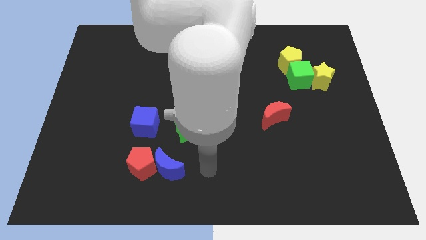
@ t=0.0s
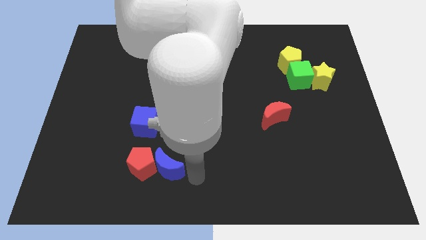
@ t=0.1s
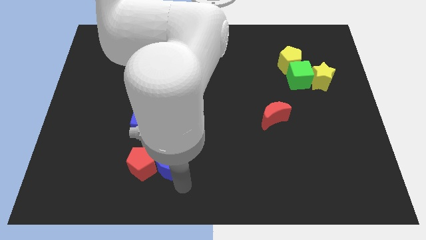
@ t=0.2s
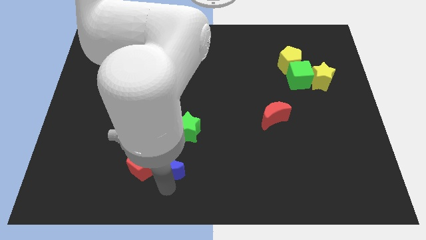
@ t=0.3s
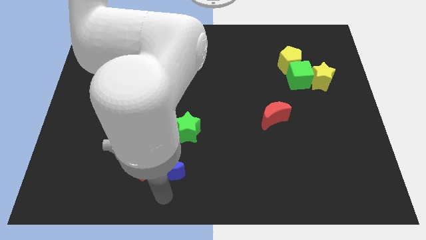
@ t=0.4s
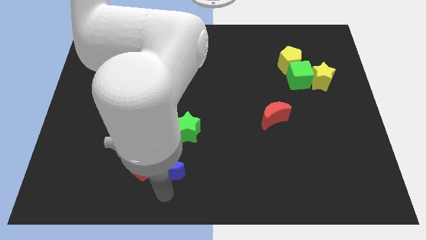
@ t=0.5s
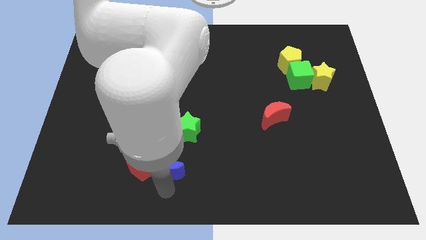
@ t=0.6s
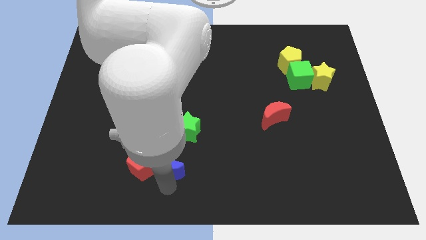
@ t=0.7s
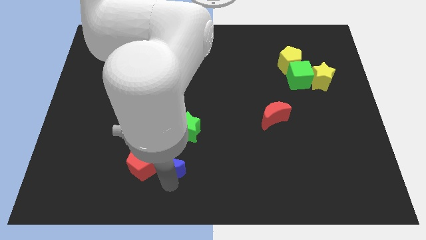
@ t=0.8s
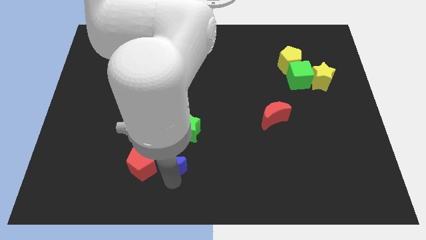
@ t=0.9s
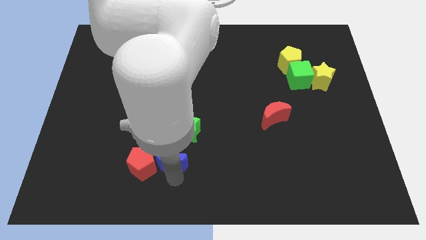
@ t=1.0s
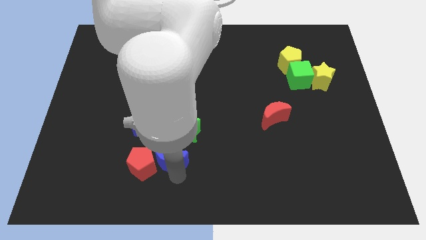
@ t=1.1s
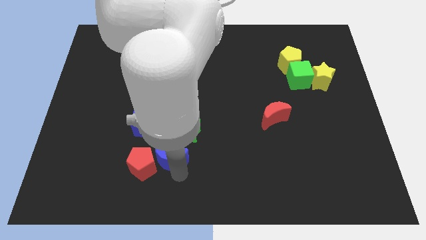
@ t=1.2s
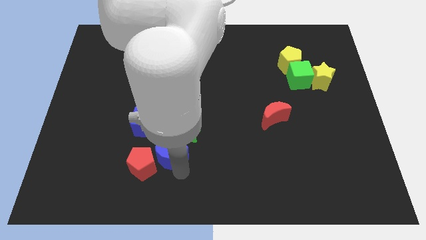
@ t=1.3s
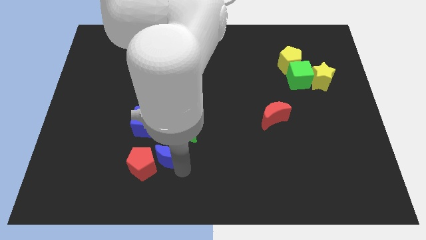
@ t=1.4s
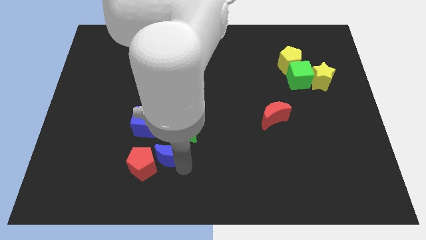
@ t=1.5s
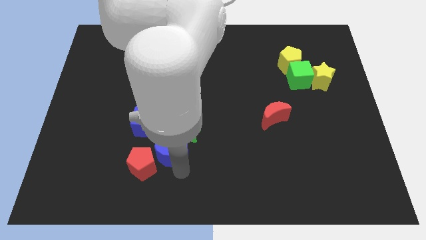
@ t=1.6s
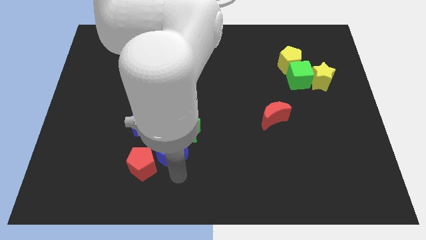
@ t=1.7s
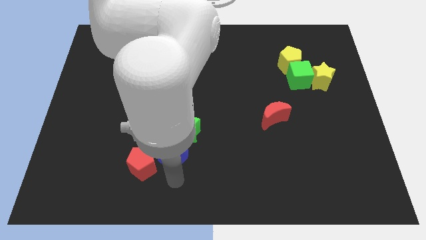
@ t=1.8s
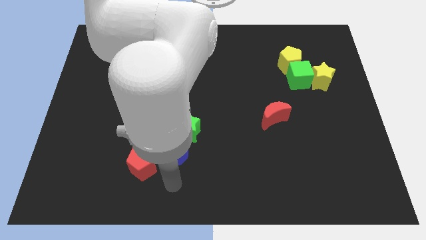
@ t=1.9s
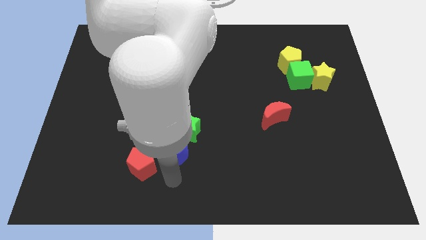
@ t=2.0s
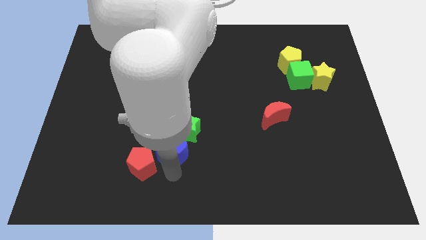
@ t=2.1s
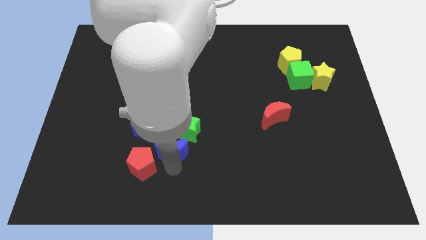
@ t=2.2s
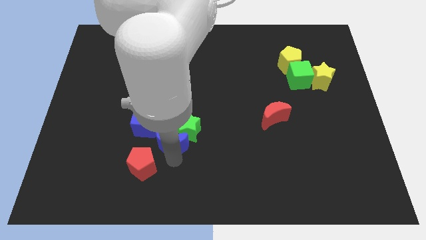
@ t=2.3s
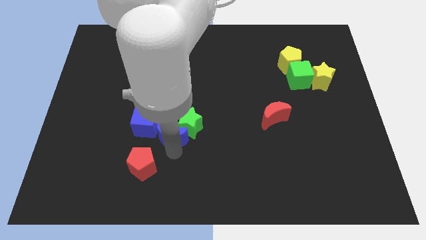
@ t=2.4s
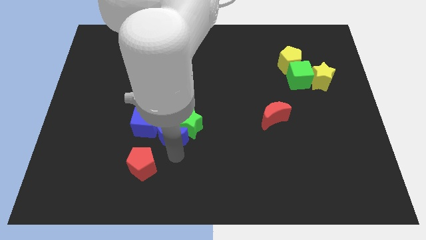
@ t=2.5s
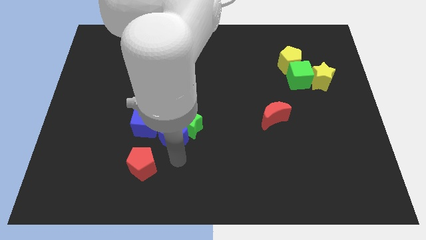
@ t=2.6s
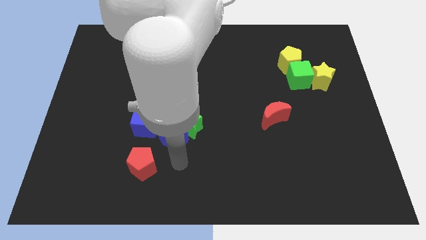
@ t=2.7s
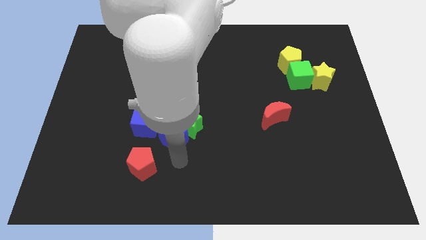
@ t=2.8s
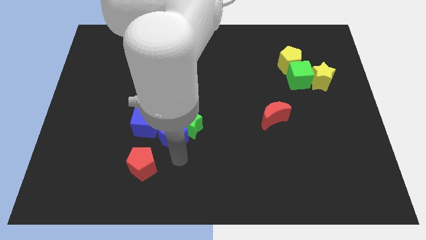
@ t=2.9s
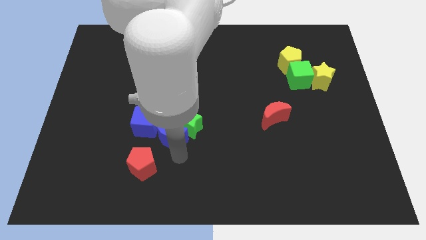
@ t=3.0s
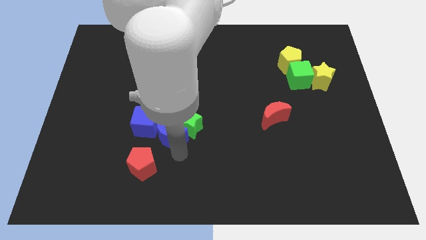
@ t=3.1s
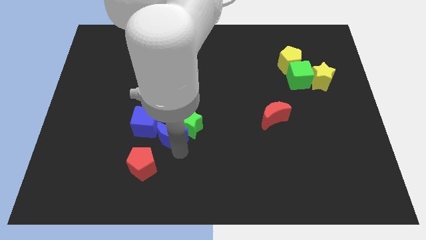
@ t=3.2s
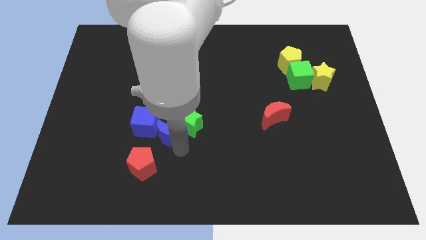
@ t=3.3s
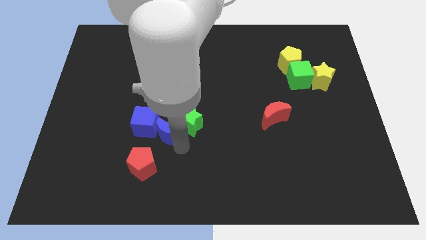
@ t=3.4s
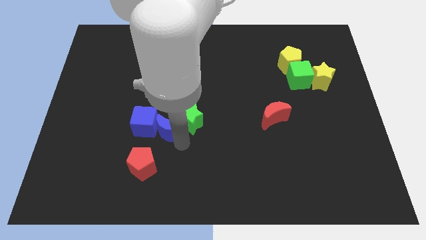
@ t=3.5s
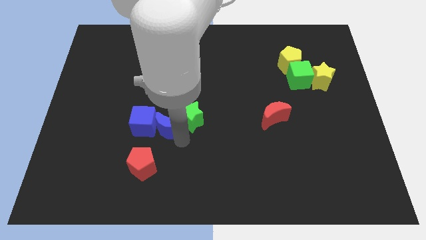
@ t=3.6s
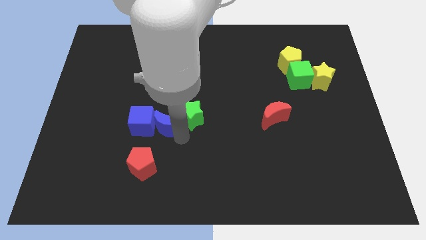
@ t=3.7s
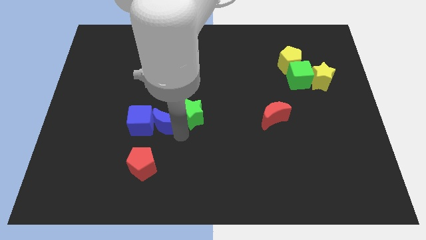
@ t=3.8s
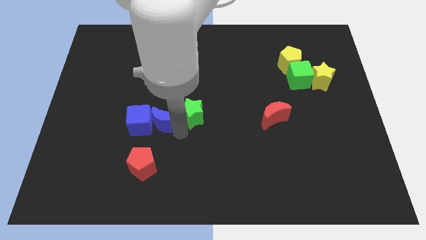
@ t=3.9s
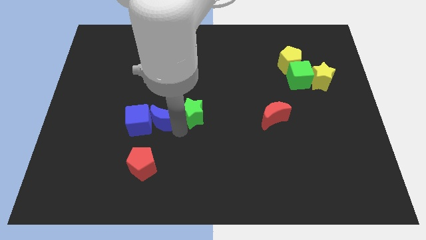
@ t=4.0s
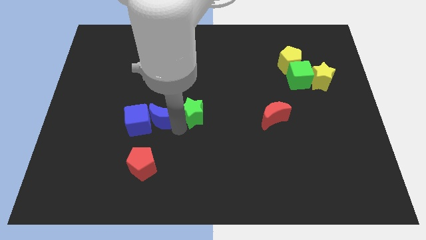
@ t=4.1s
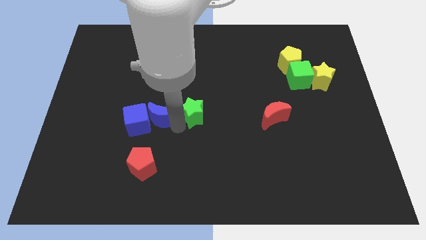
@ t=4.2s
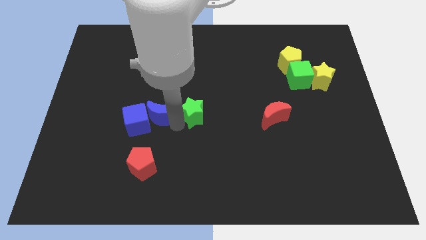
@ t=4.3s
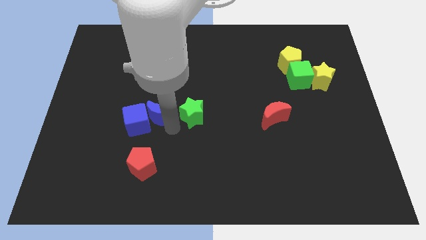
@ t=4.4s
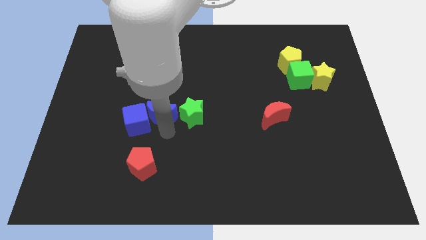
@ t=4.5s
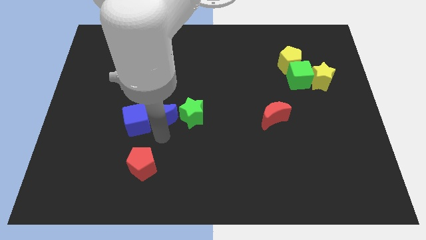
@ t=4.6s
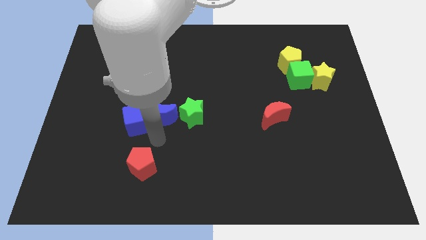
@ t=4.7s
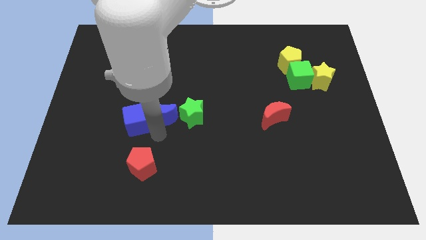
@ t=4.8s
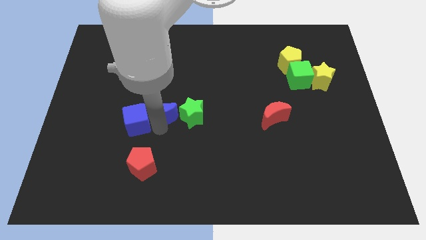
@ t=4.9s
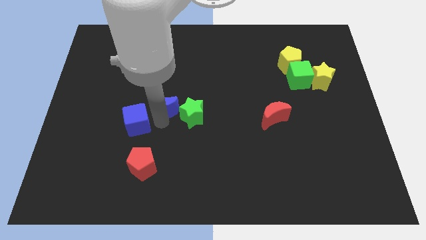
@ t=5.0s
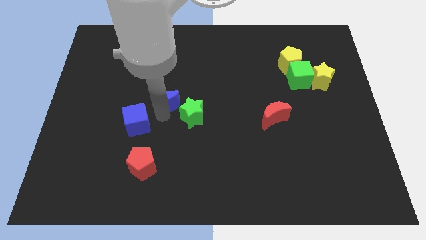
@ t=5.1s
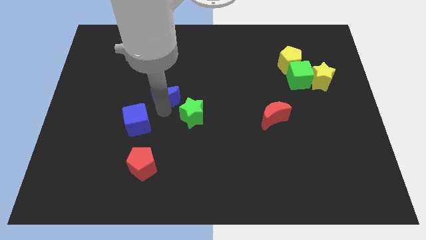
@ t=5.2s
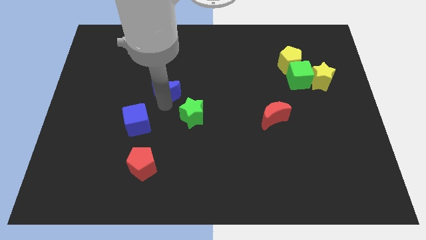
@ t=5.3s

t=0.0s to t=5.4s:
slide the blue moon upwards

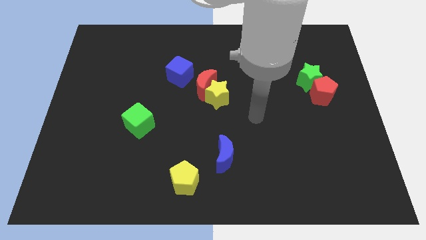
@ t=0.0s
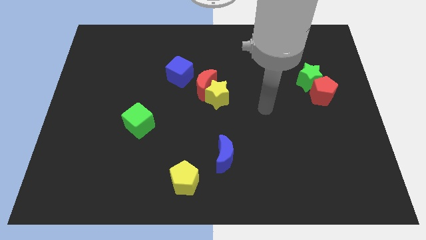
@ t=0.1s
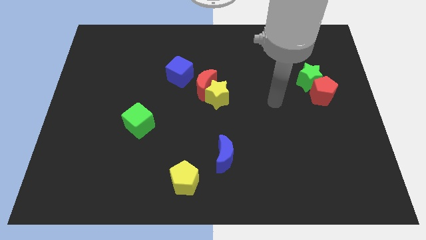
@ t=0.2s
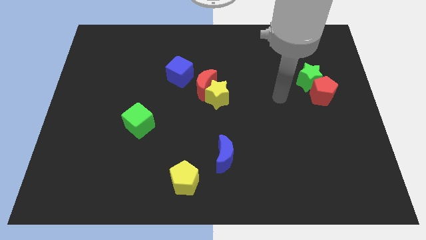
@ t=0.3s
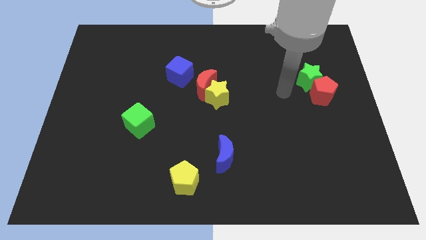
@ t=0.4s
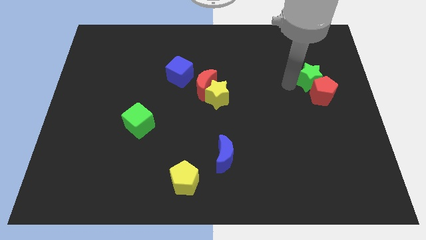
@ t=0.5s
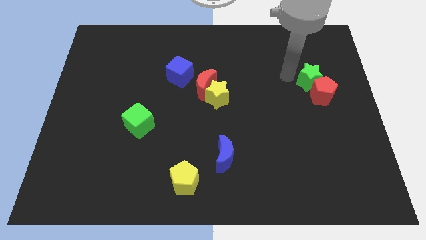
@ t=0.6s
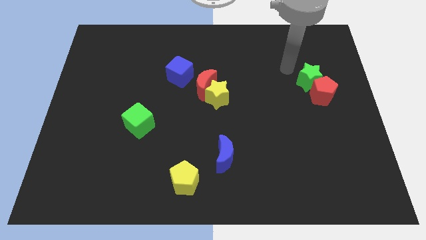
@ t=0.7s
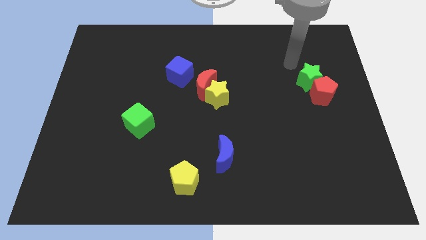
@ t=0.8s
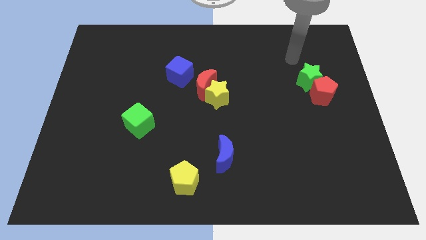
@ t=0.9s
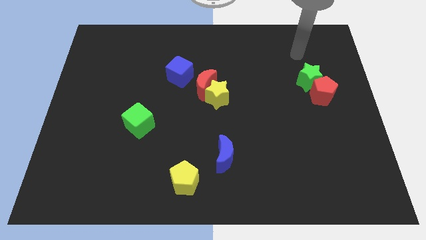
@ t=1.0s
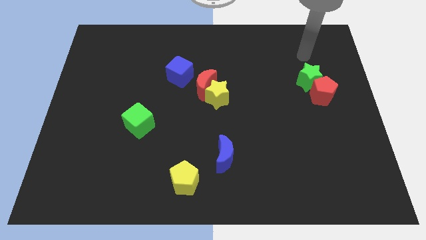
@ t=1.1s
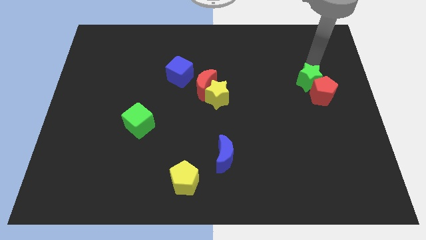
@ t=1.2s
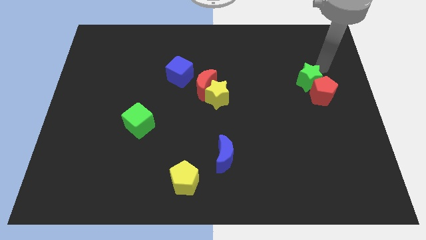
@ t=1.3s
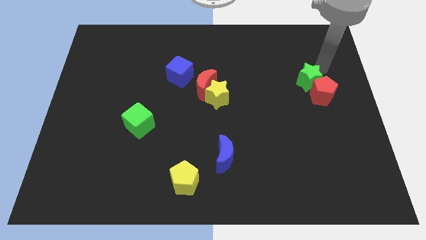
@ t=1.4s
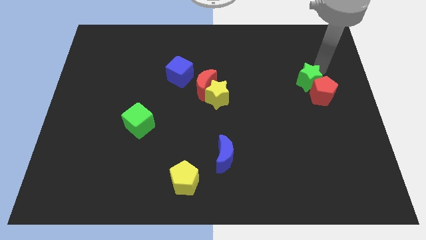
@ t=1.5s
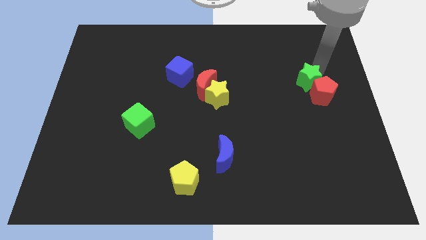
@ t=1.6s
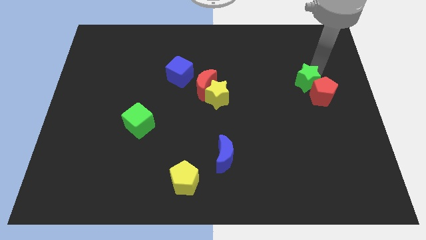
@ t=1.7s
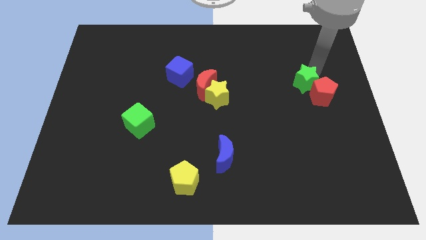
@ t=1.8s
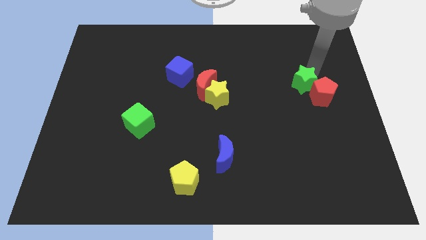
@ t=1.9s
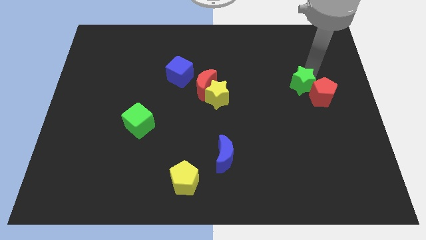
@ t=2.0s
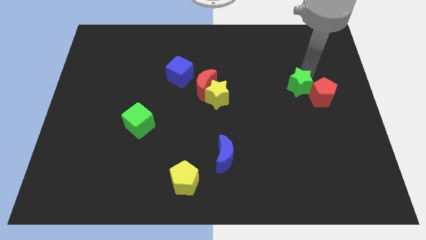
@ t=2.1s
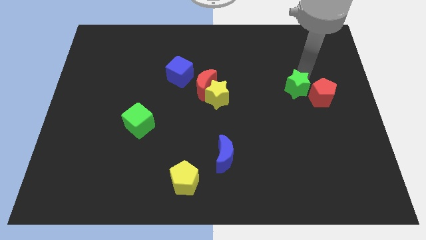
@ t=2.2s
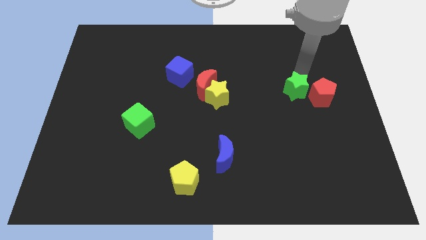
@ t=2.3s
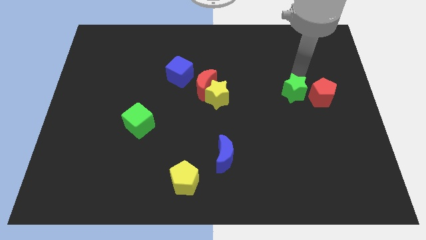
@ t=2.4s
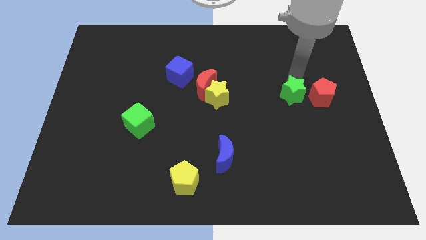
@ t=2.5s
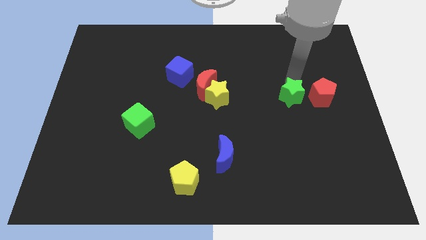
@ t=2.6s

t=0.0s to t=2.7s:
slightly move the green star down and then to the left
